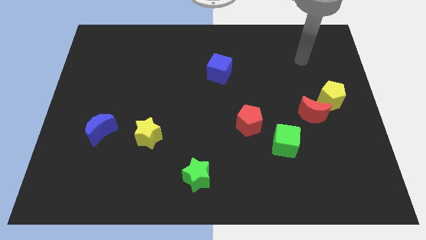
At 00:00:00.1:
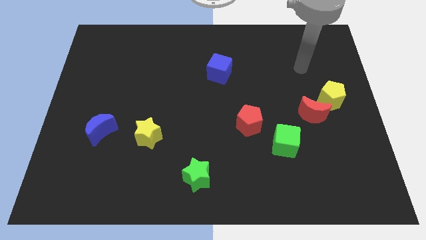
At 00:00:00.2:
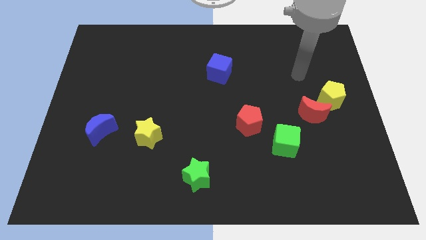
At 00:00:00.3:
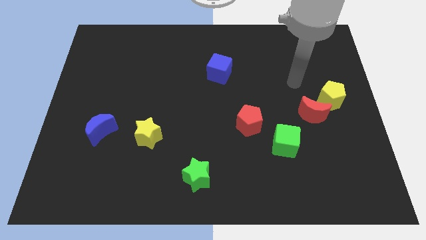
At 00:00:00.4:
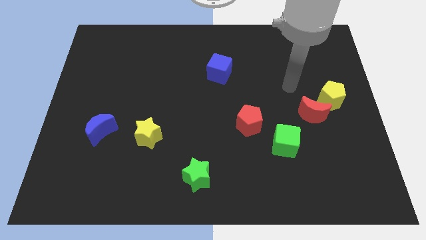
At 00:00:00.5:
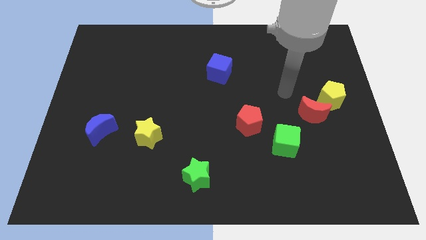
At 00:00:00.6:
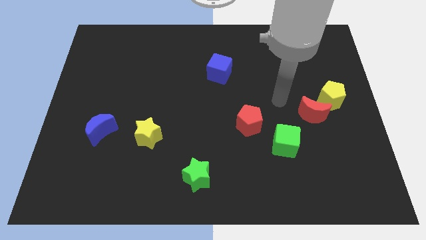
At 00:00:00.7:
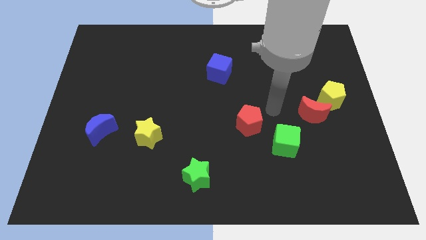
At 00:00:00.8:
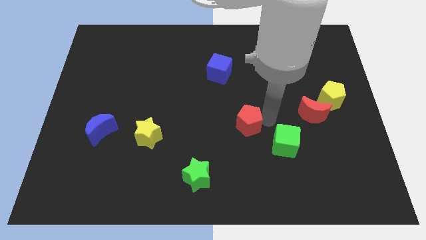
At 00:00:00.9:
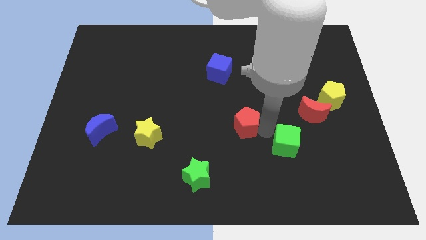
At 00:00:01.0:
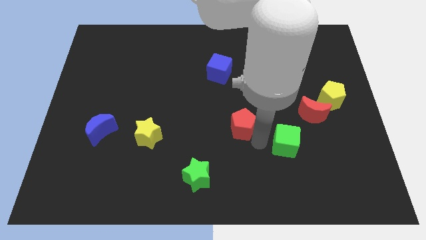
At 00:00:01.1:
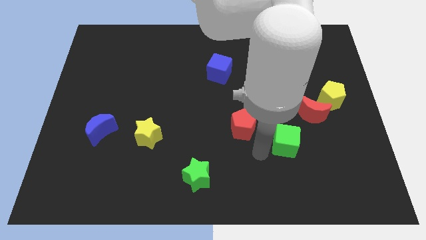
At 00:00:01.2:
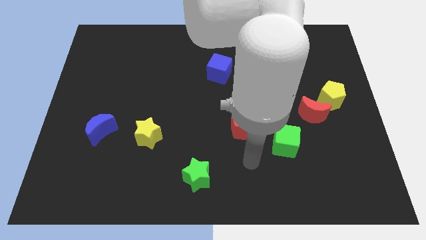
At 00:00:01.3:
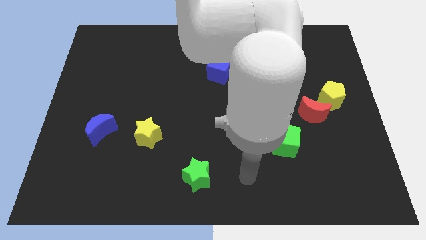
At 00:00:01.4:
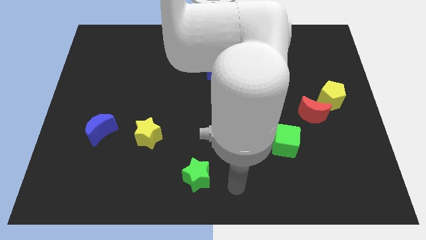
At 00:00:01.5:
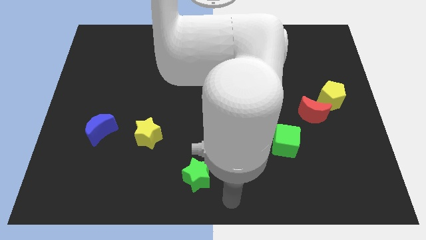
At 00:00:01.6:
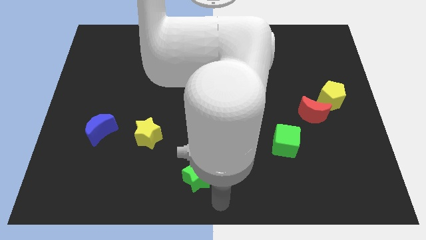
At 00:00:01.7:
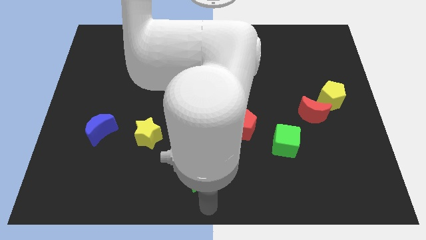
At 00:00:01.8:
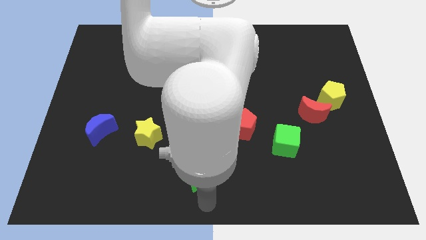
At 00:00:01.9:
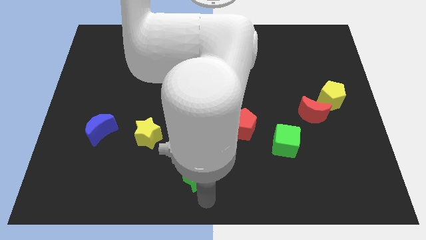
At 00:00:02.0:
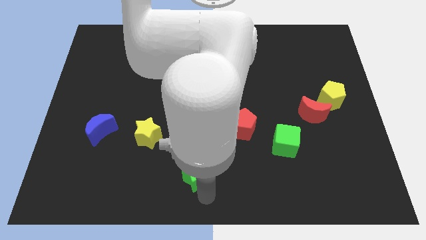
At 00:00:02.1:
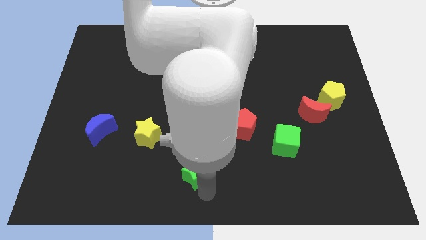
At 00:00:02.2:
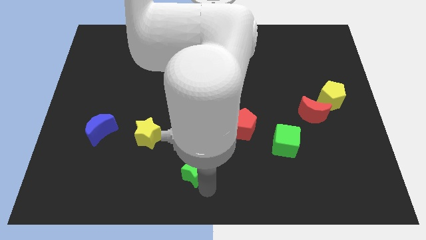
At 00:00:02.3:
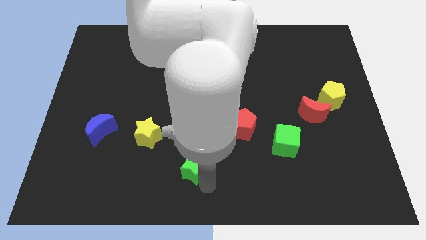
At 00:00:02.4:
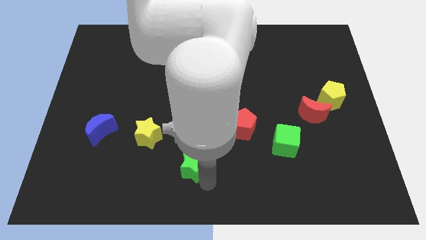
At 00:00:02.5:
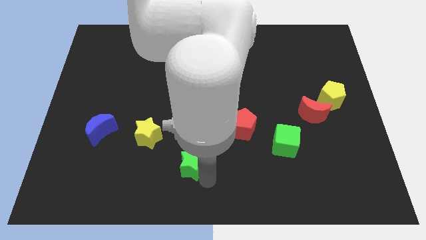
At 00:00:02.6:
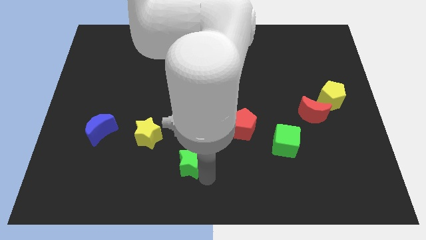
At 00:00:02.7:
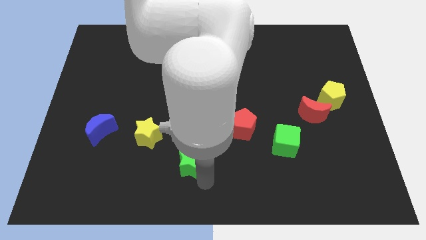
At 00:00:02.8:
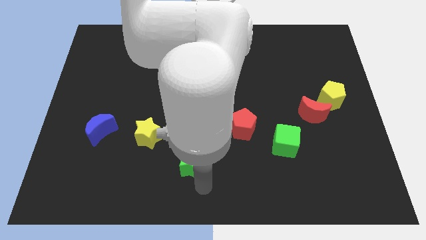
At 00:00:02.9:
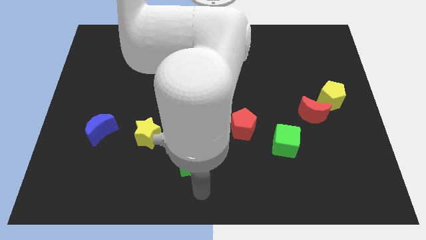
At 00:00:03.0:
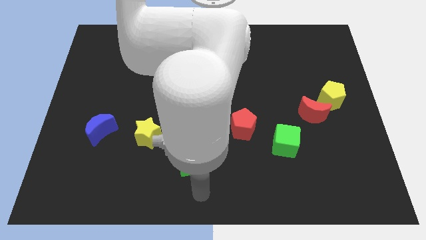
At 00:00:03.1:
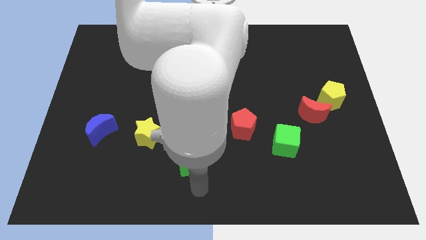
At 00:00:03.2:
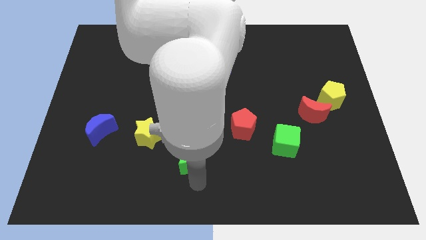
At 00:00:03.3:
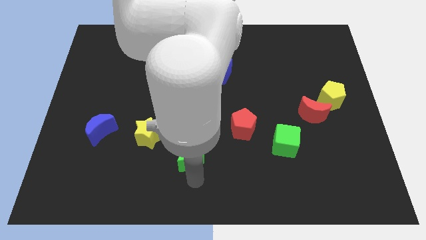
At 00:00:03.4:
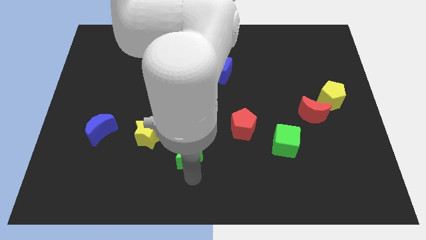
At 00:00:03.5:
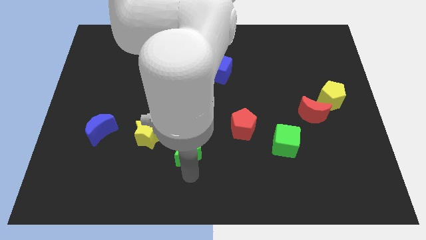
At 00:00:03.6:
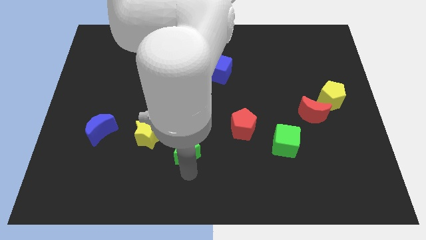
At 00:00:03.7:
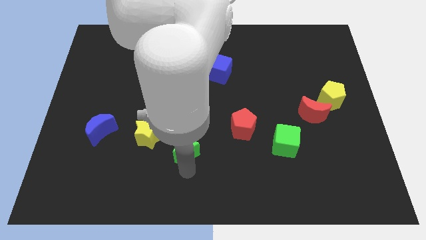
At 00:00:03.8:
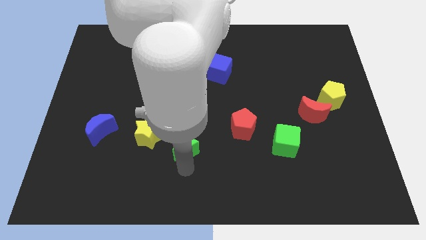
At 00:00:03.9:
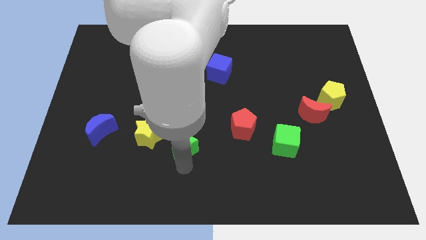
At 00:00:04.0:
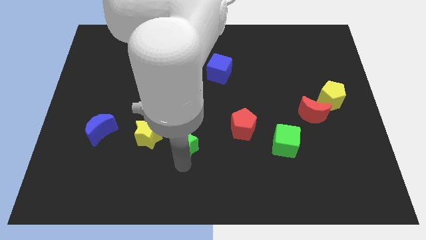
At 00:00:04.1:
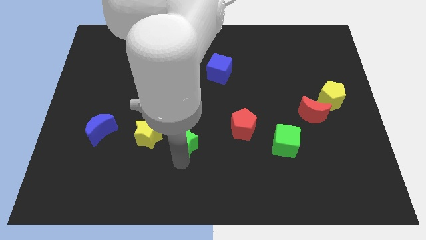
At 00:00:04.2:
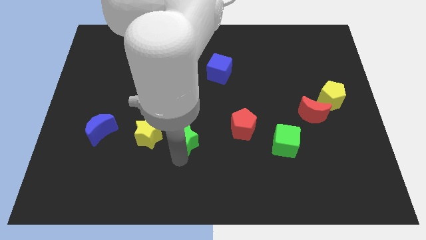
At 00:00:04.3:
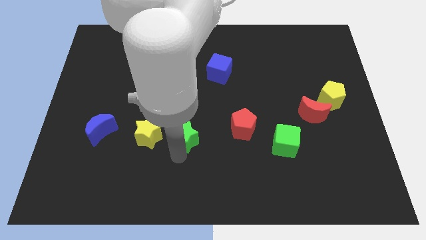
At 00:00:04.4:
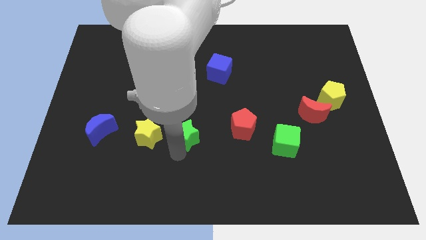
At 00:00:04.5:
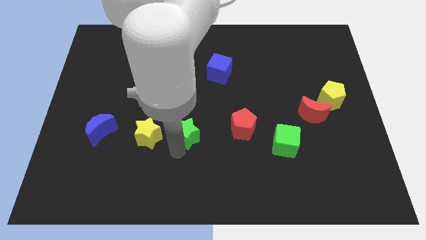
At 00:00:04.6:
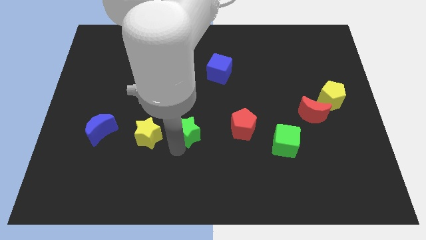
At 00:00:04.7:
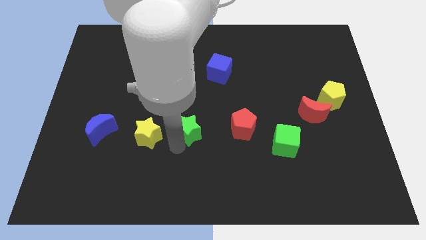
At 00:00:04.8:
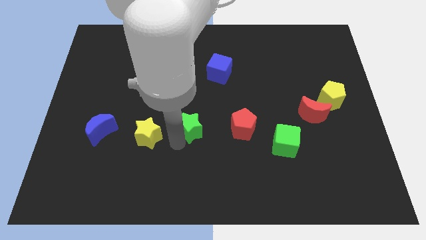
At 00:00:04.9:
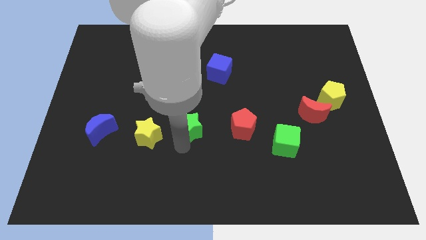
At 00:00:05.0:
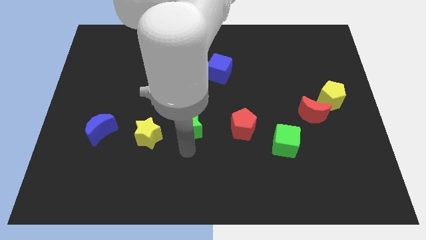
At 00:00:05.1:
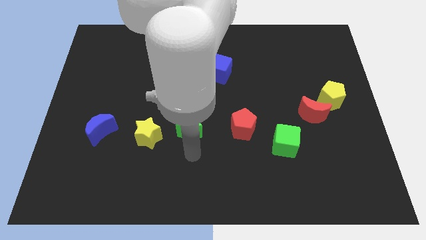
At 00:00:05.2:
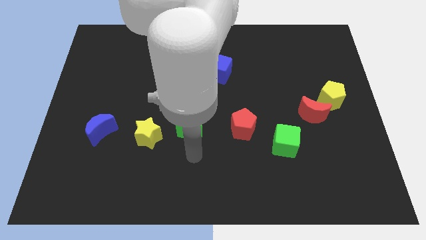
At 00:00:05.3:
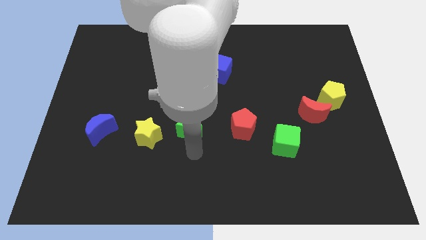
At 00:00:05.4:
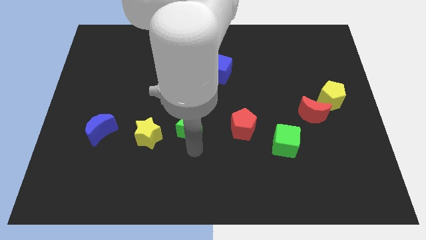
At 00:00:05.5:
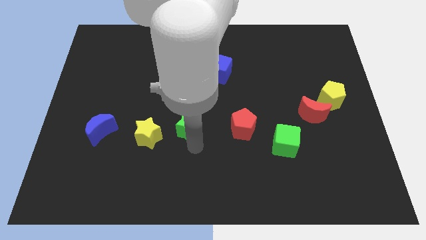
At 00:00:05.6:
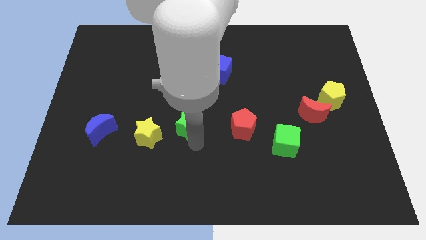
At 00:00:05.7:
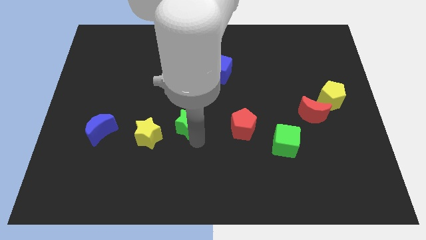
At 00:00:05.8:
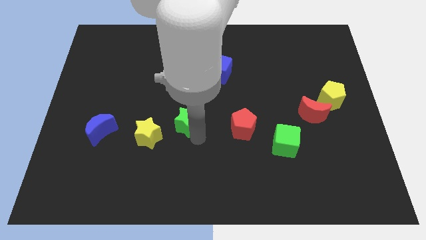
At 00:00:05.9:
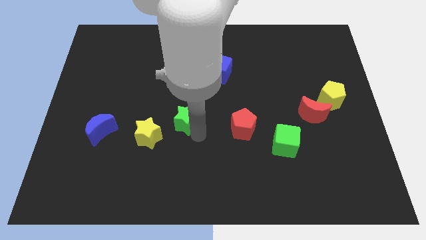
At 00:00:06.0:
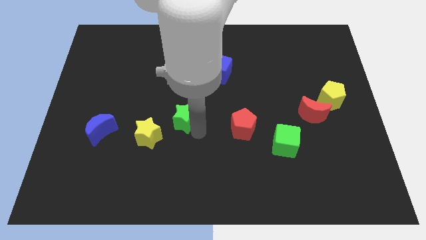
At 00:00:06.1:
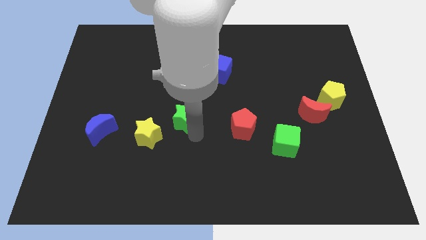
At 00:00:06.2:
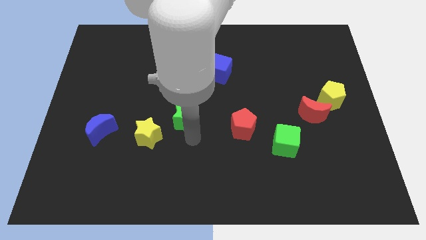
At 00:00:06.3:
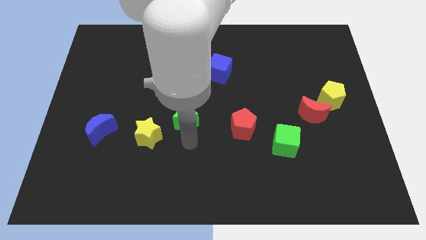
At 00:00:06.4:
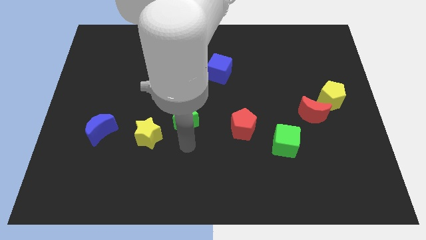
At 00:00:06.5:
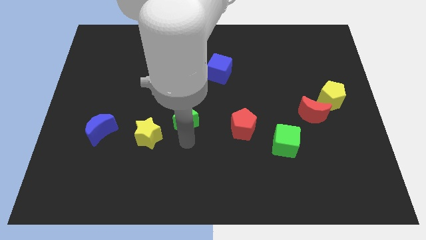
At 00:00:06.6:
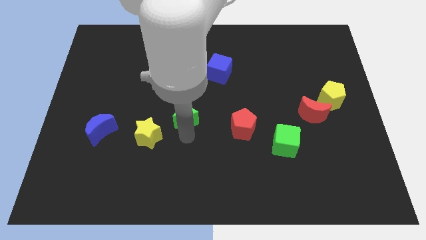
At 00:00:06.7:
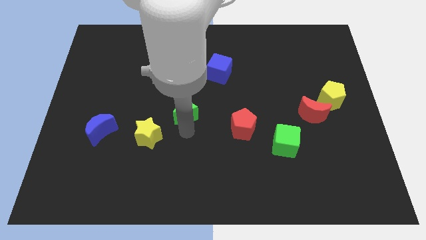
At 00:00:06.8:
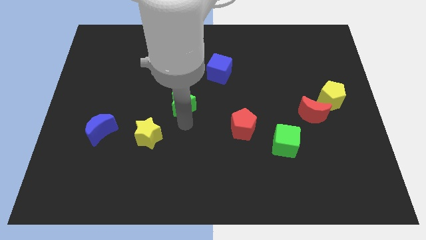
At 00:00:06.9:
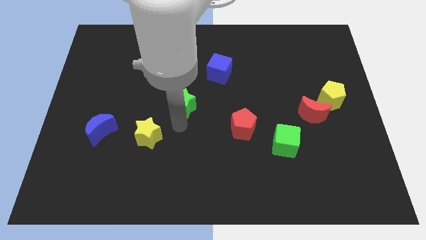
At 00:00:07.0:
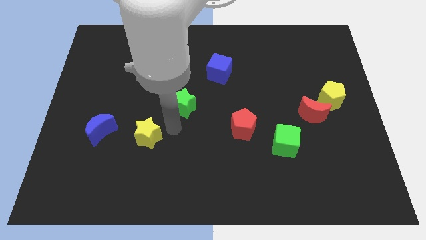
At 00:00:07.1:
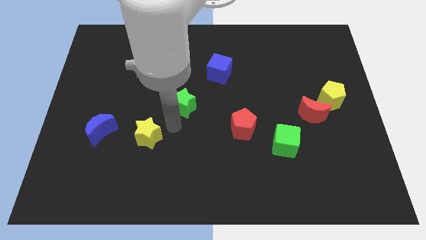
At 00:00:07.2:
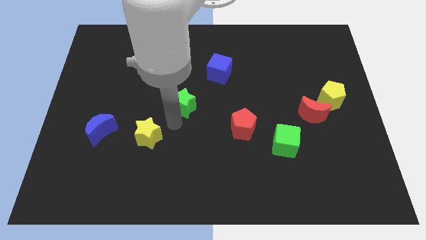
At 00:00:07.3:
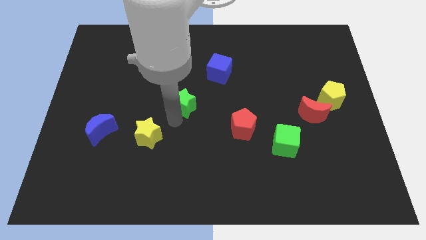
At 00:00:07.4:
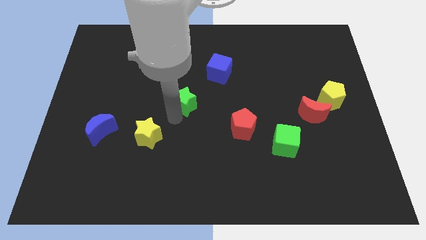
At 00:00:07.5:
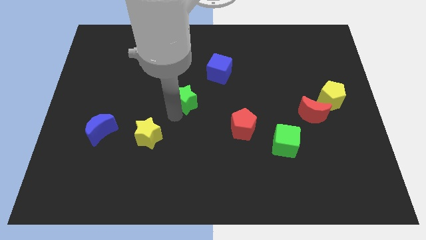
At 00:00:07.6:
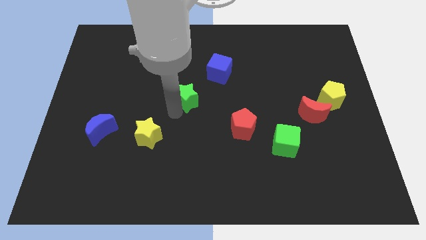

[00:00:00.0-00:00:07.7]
move the green star up
